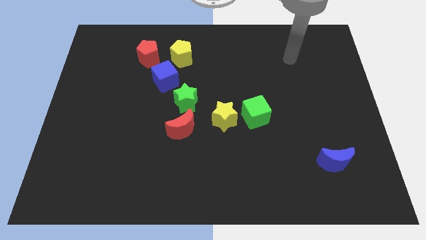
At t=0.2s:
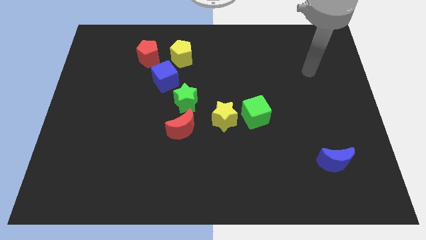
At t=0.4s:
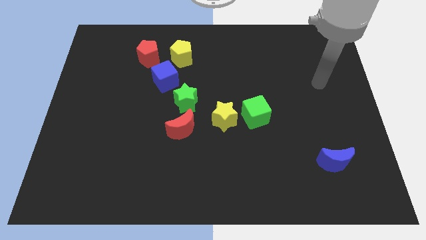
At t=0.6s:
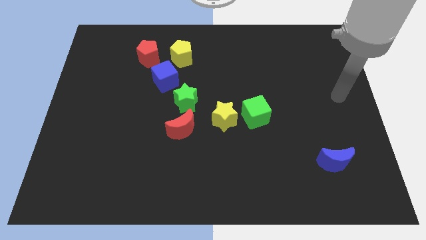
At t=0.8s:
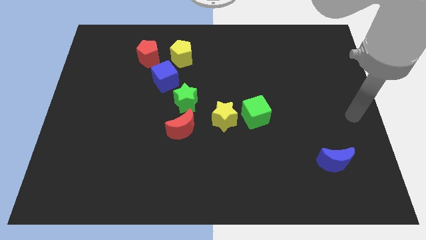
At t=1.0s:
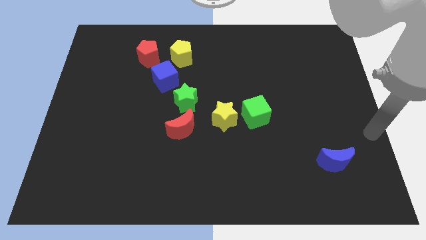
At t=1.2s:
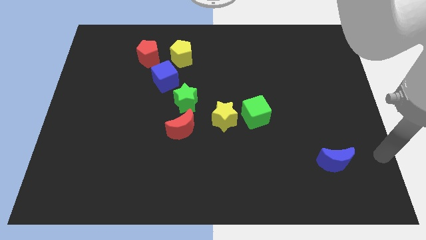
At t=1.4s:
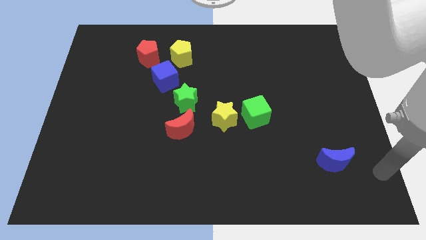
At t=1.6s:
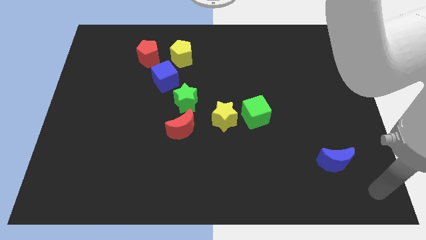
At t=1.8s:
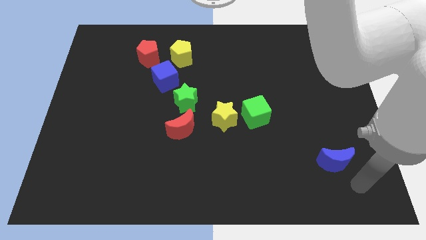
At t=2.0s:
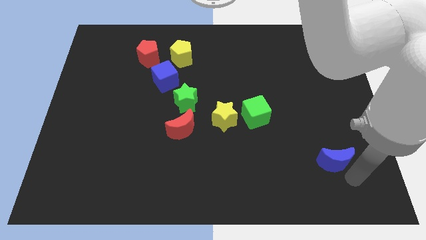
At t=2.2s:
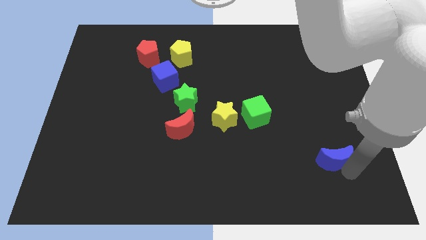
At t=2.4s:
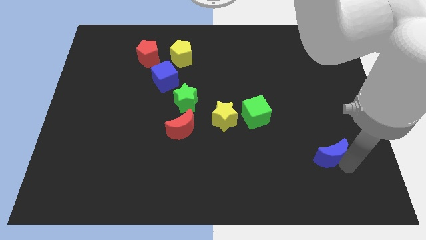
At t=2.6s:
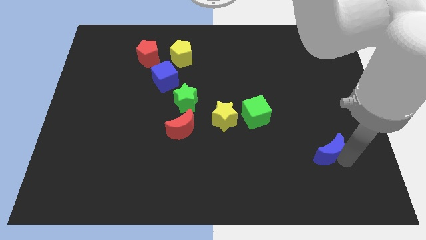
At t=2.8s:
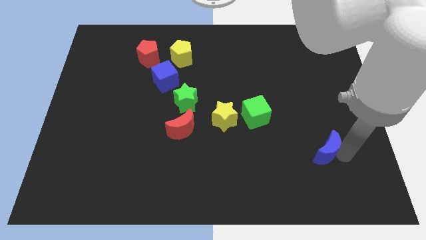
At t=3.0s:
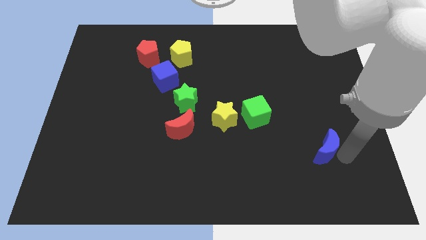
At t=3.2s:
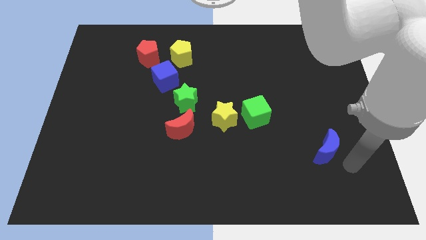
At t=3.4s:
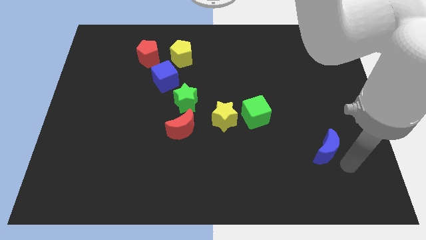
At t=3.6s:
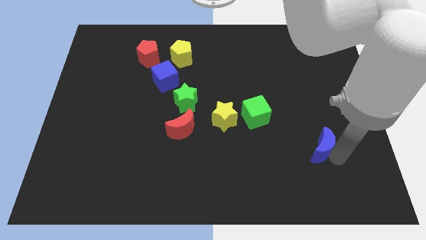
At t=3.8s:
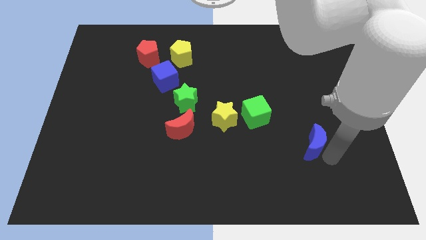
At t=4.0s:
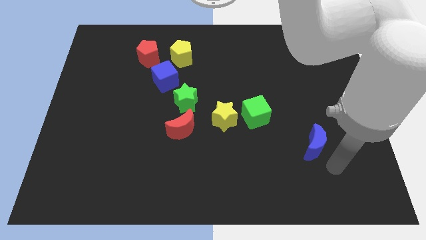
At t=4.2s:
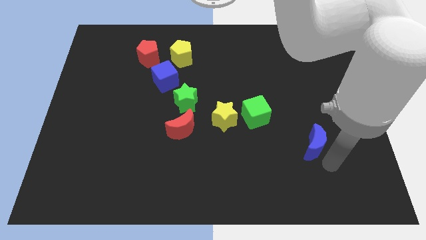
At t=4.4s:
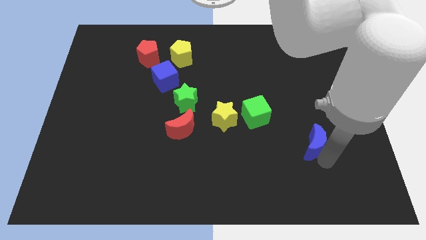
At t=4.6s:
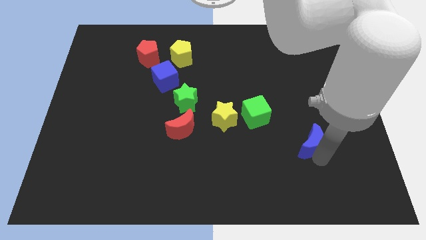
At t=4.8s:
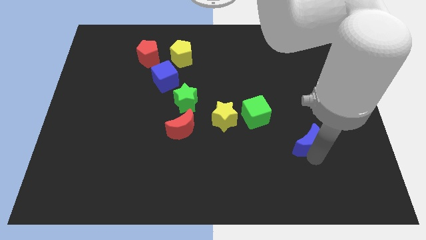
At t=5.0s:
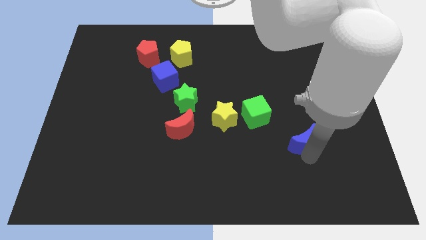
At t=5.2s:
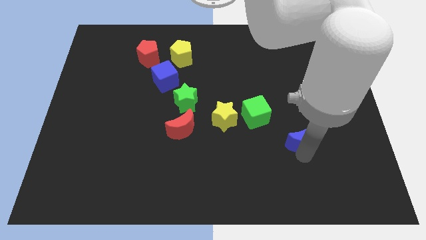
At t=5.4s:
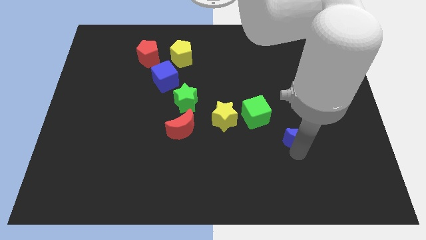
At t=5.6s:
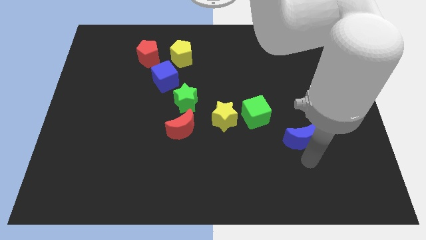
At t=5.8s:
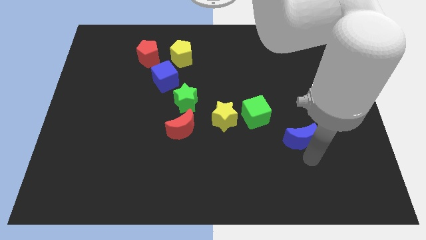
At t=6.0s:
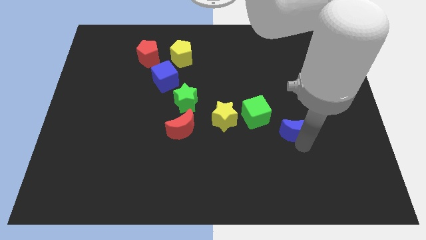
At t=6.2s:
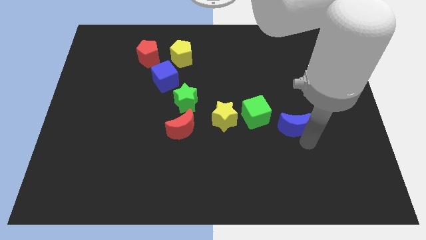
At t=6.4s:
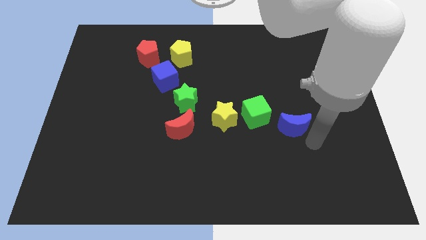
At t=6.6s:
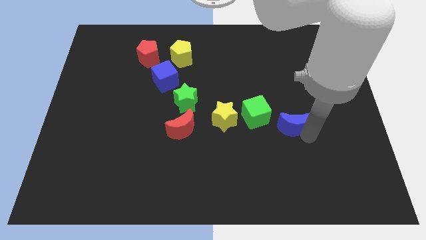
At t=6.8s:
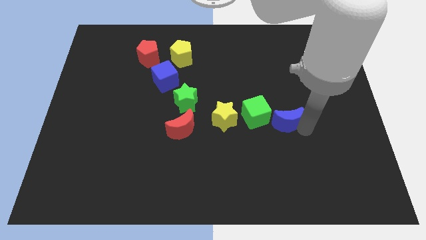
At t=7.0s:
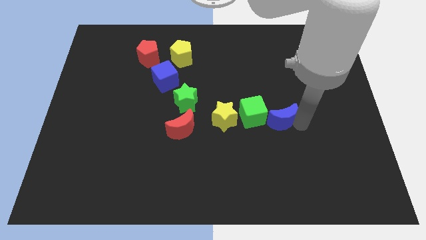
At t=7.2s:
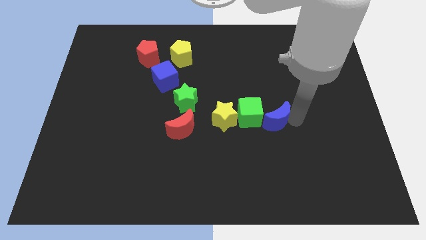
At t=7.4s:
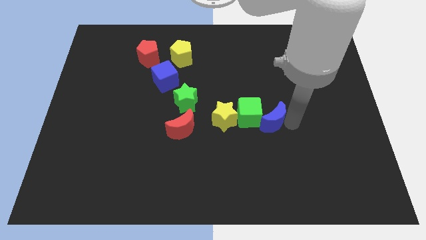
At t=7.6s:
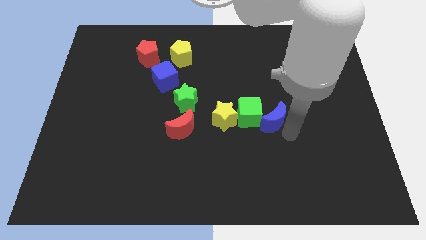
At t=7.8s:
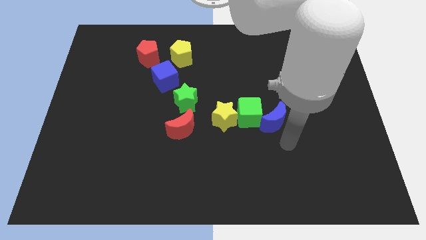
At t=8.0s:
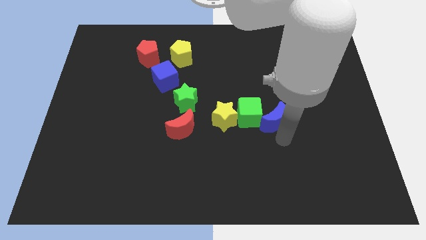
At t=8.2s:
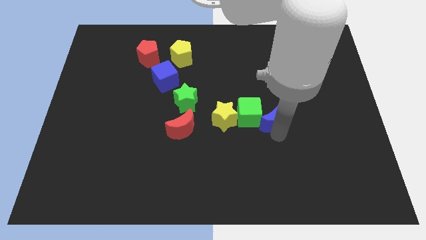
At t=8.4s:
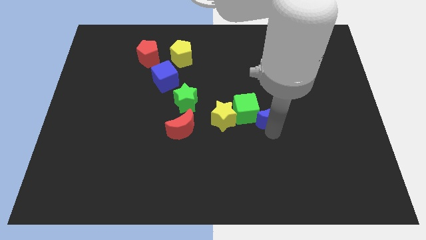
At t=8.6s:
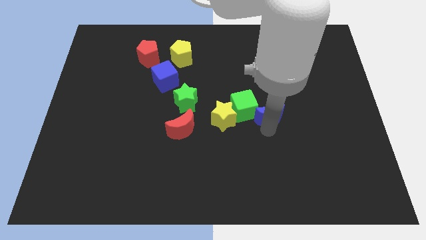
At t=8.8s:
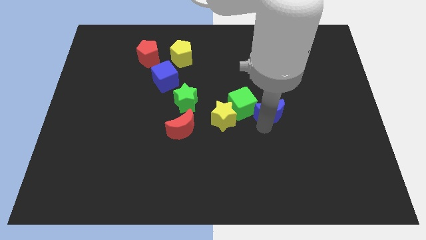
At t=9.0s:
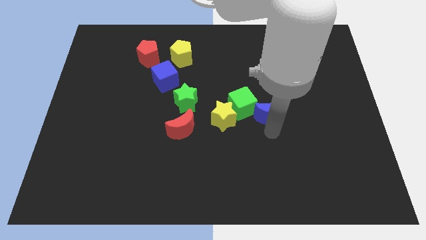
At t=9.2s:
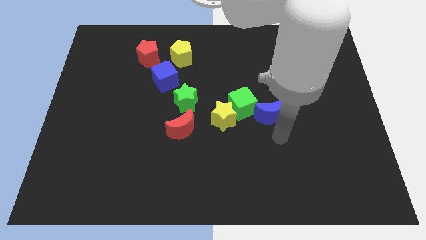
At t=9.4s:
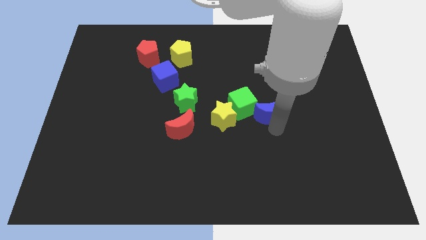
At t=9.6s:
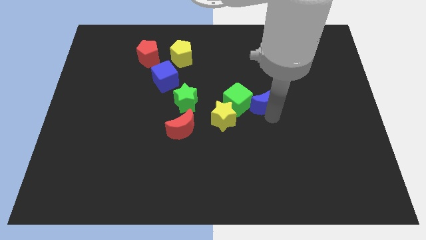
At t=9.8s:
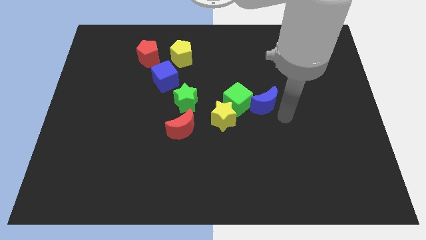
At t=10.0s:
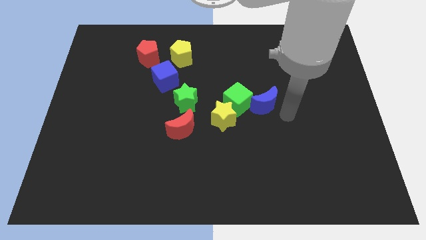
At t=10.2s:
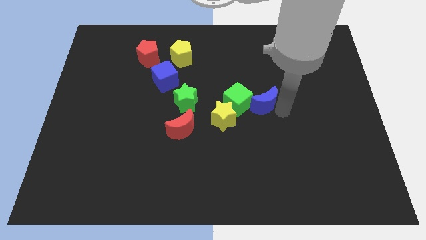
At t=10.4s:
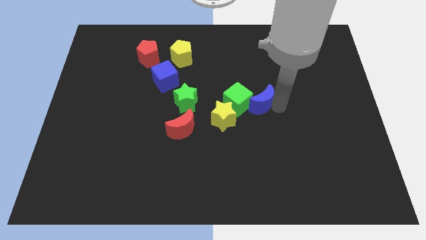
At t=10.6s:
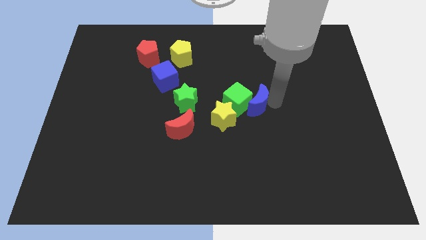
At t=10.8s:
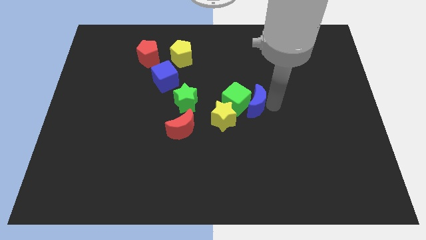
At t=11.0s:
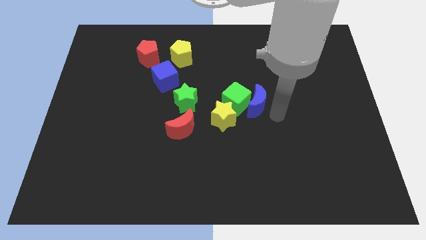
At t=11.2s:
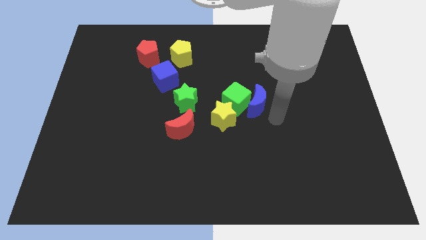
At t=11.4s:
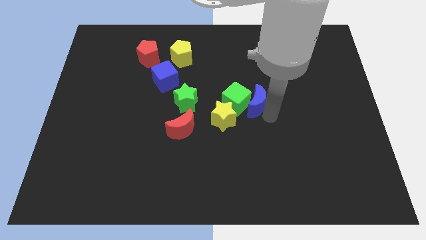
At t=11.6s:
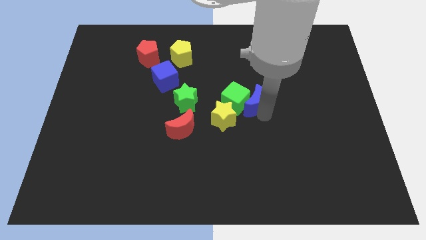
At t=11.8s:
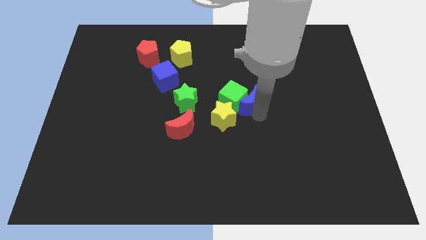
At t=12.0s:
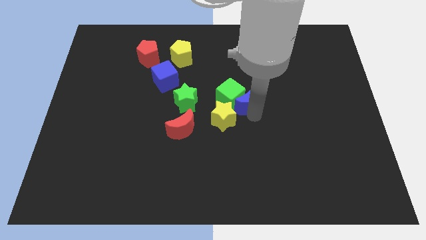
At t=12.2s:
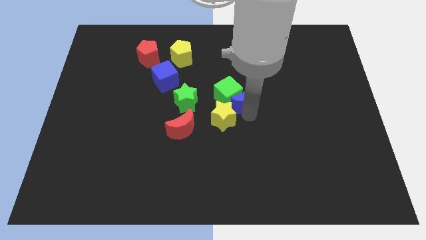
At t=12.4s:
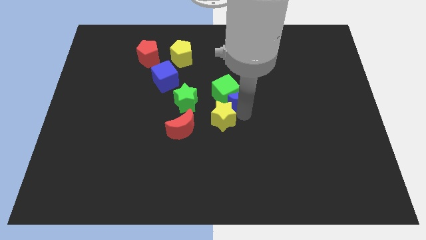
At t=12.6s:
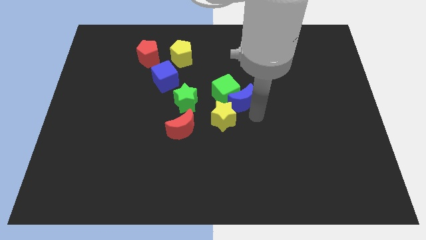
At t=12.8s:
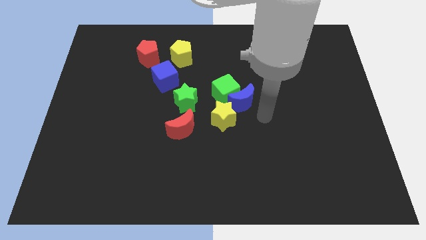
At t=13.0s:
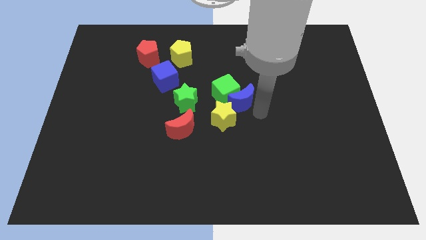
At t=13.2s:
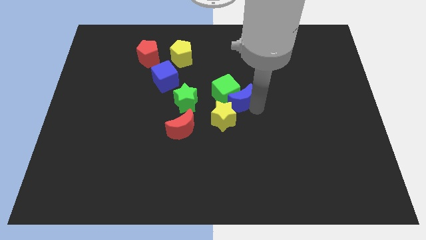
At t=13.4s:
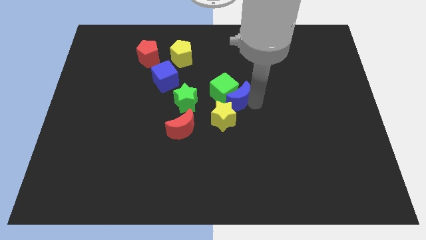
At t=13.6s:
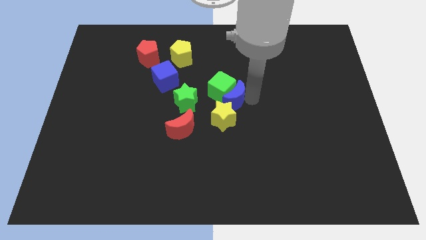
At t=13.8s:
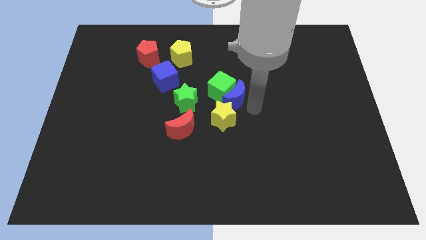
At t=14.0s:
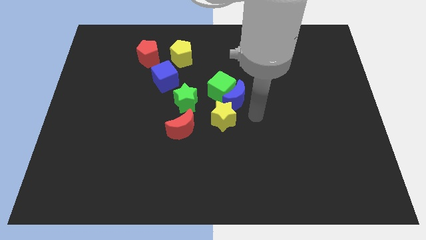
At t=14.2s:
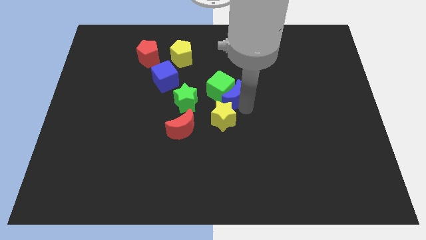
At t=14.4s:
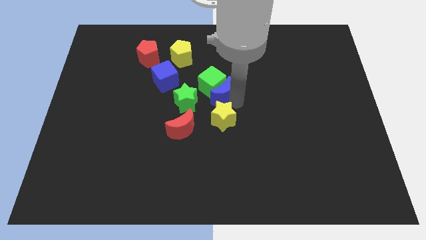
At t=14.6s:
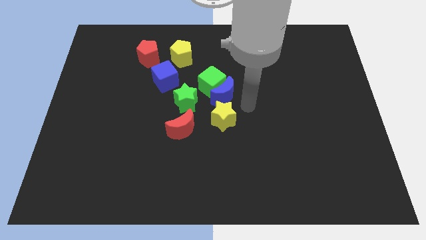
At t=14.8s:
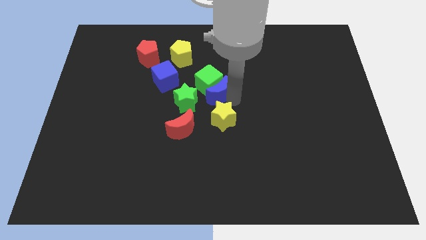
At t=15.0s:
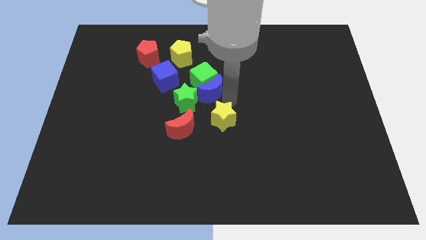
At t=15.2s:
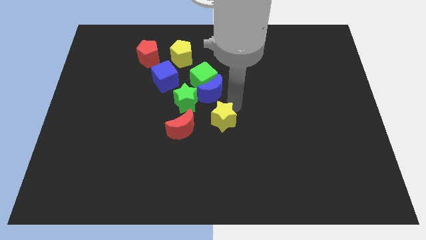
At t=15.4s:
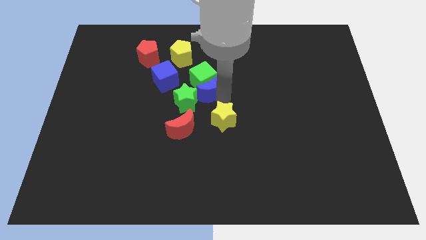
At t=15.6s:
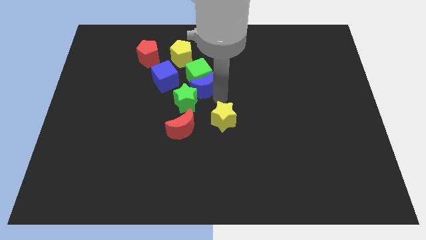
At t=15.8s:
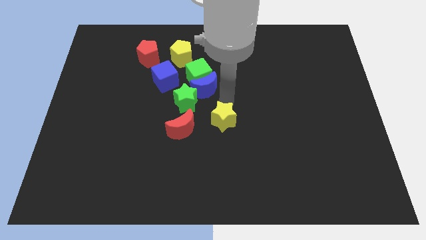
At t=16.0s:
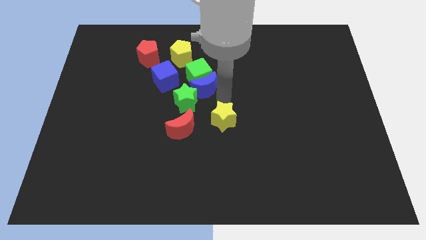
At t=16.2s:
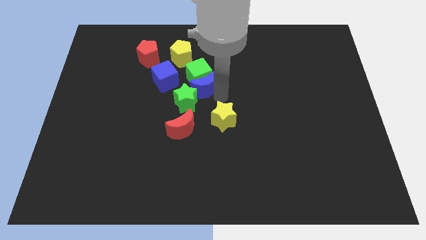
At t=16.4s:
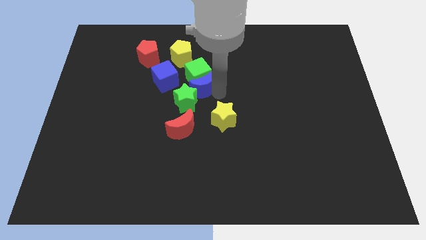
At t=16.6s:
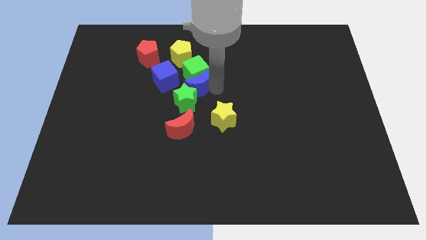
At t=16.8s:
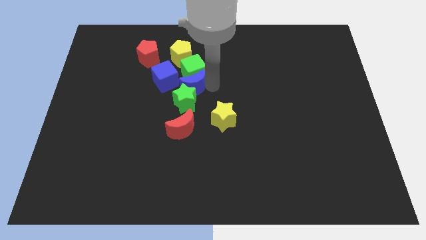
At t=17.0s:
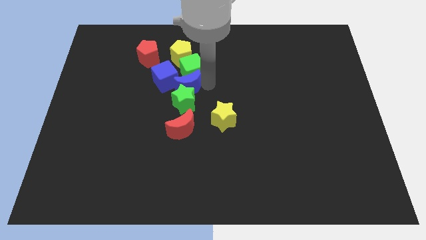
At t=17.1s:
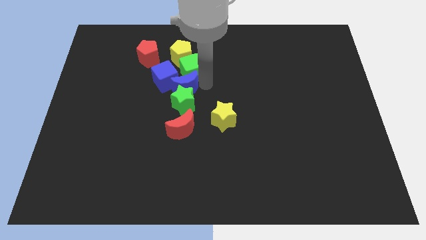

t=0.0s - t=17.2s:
slide the blue moon next to the blue cube
